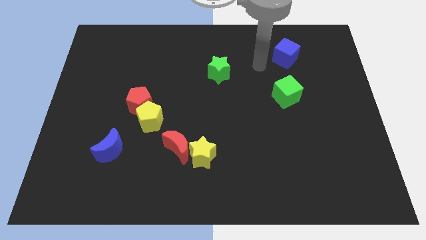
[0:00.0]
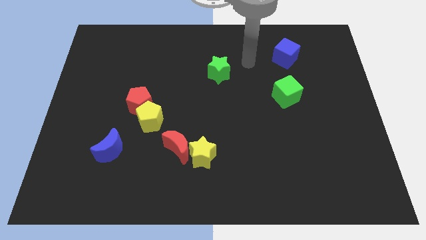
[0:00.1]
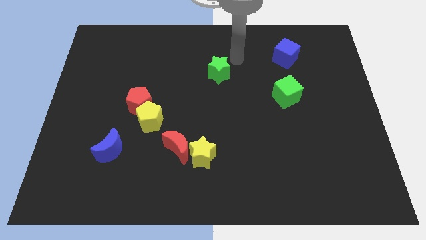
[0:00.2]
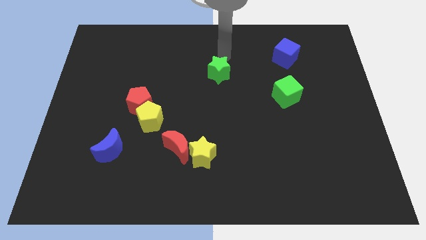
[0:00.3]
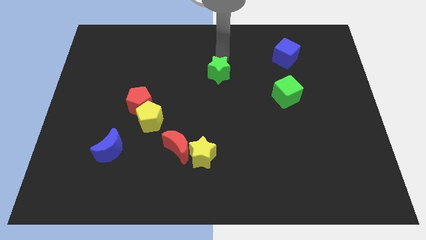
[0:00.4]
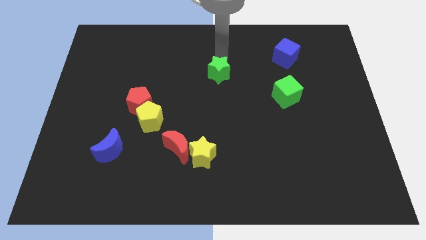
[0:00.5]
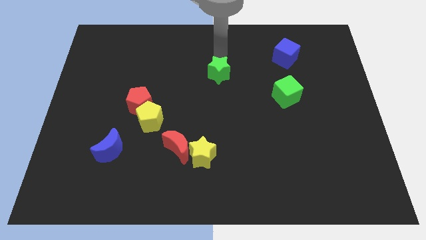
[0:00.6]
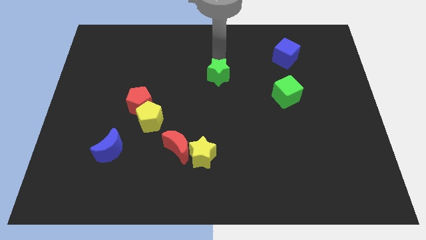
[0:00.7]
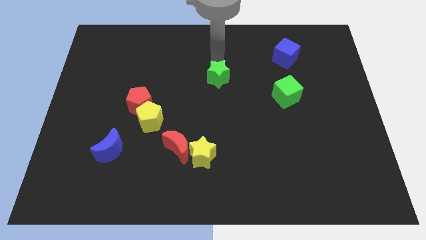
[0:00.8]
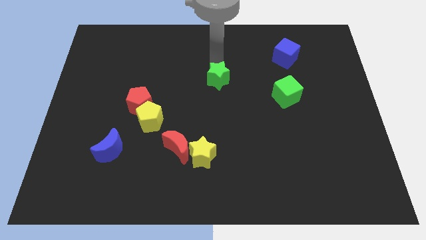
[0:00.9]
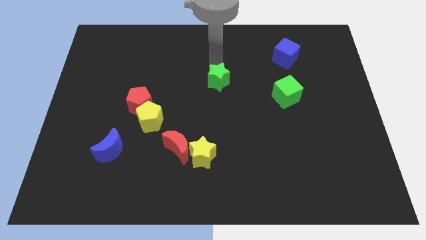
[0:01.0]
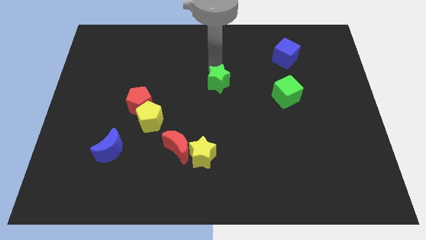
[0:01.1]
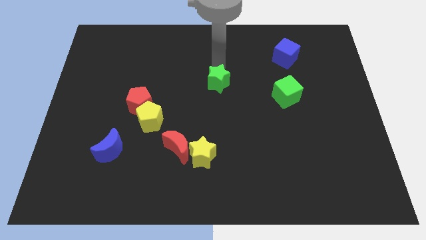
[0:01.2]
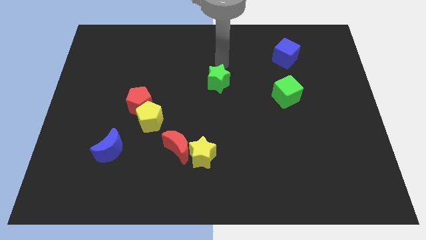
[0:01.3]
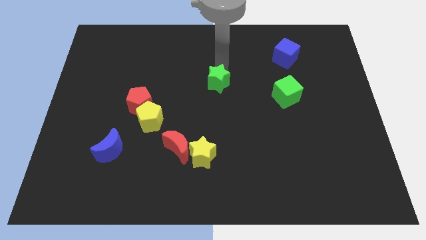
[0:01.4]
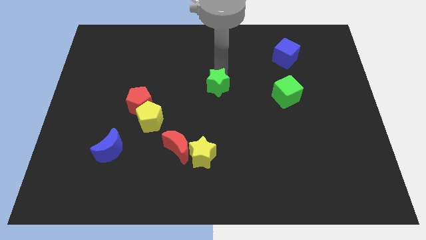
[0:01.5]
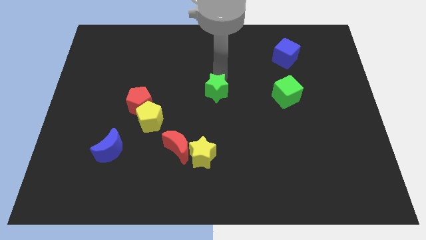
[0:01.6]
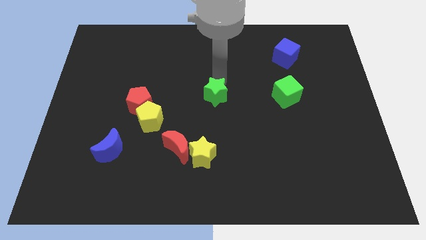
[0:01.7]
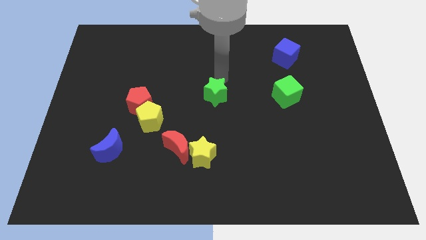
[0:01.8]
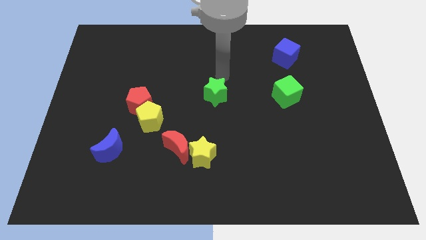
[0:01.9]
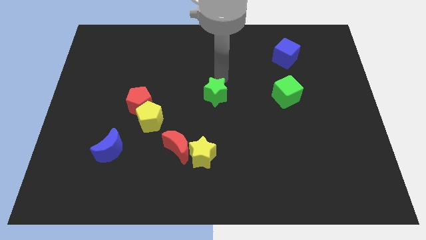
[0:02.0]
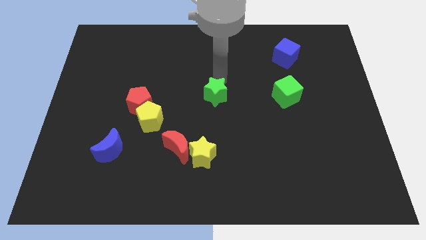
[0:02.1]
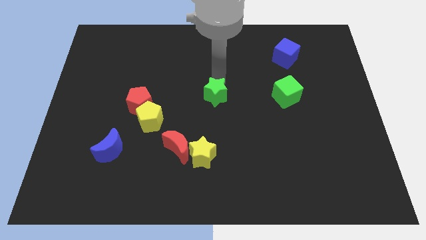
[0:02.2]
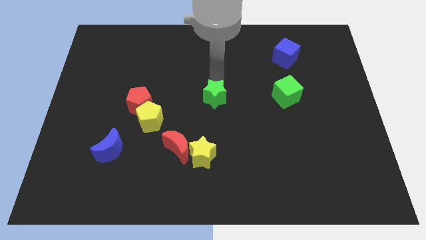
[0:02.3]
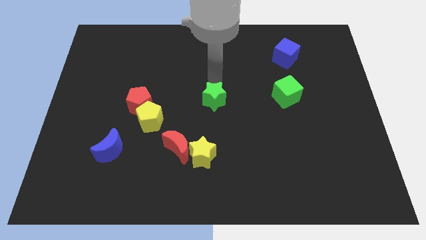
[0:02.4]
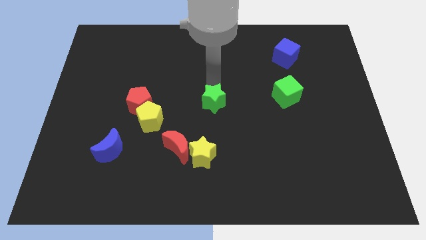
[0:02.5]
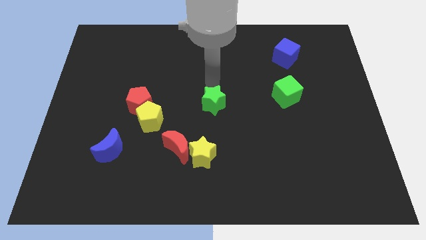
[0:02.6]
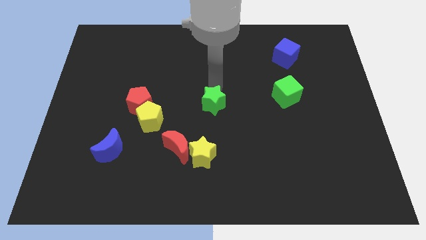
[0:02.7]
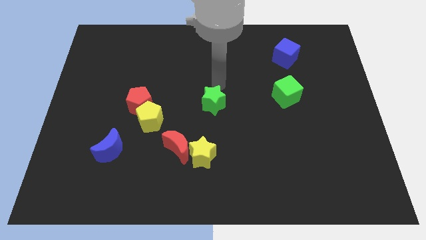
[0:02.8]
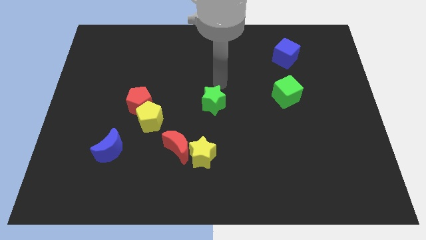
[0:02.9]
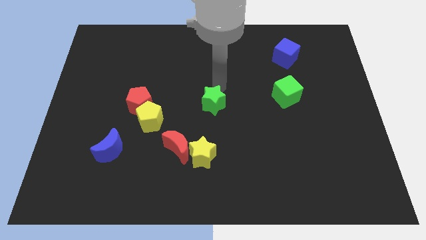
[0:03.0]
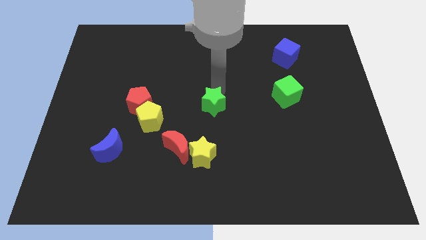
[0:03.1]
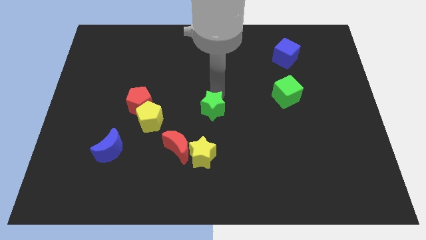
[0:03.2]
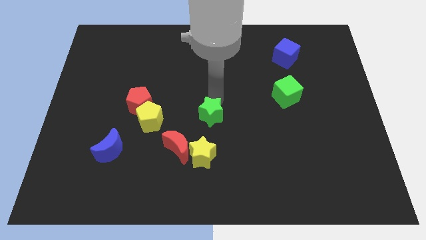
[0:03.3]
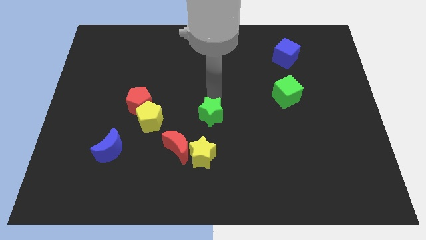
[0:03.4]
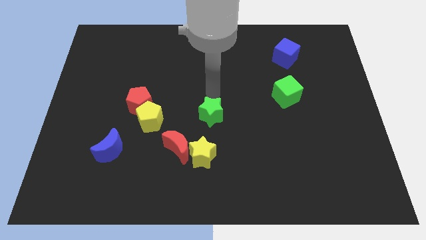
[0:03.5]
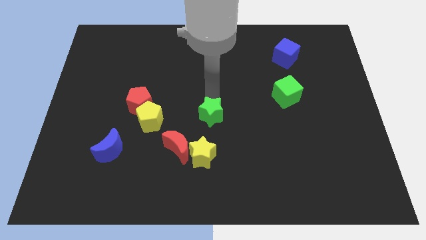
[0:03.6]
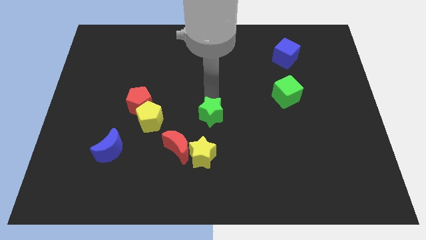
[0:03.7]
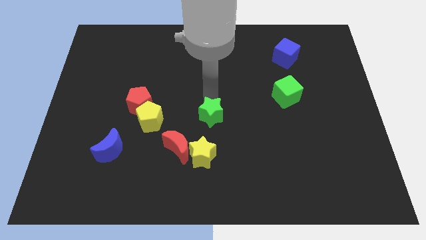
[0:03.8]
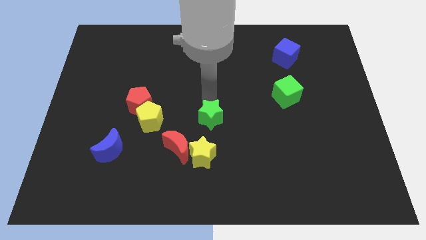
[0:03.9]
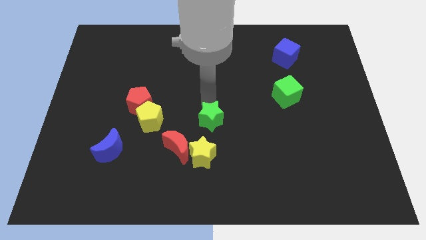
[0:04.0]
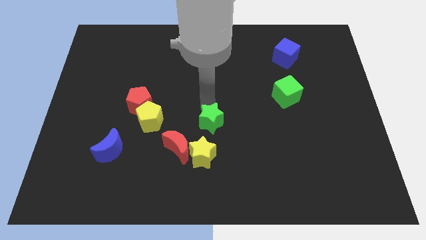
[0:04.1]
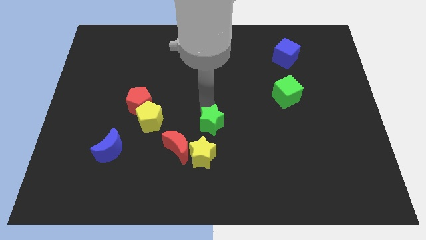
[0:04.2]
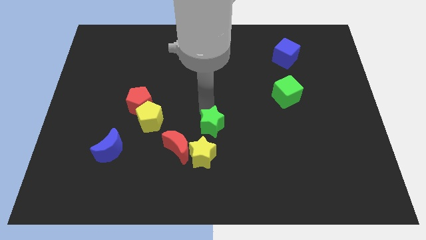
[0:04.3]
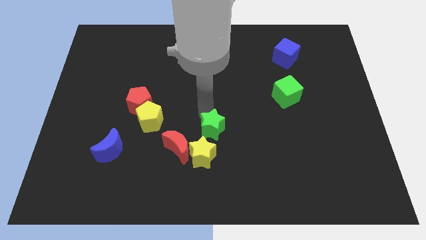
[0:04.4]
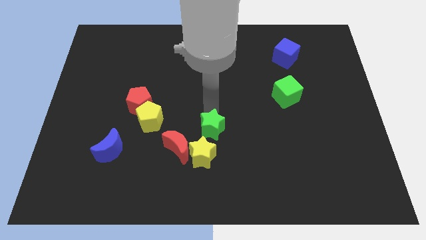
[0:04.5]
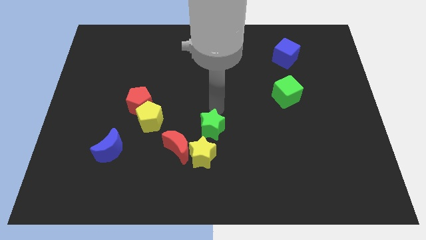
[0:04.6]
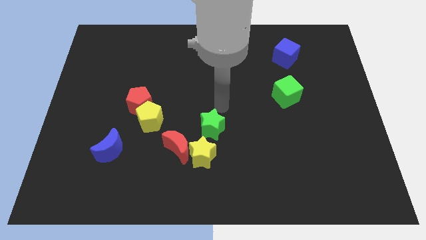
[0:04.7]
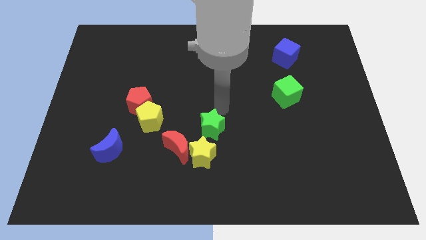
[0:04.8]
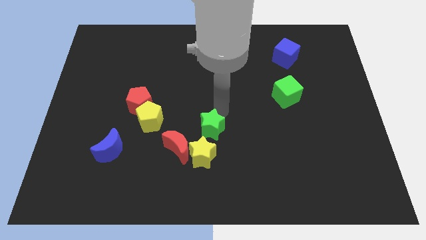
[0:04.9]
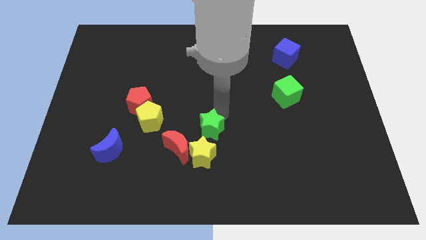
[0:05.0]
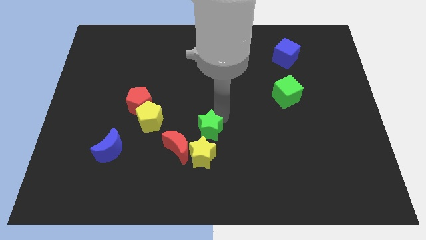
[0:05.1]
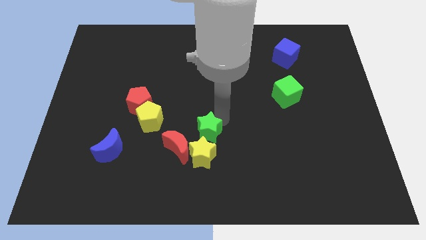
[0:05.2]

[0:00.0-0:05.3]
put the green star next to the yellow star
